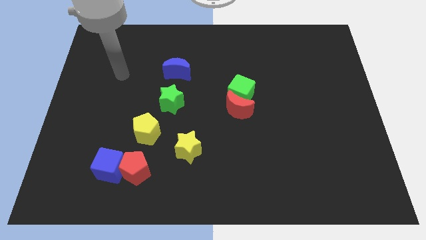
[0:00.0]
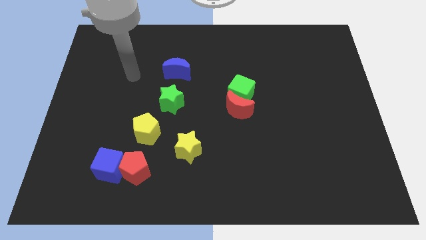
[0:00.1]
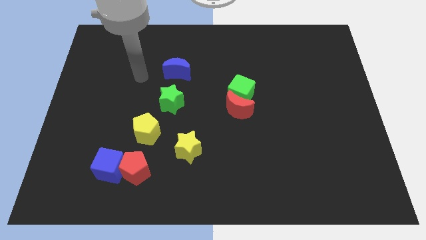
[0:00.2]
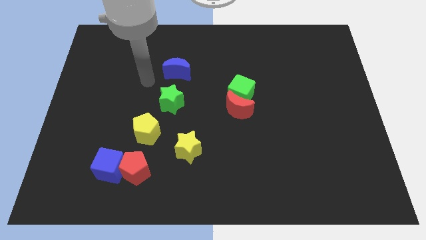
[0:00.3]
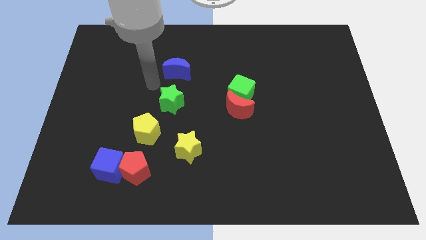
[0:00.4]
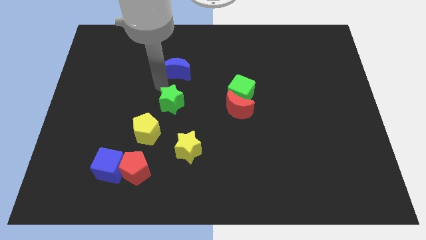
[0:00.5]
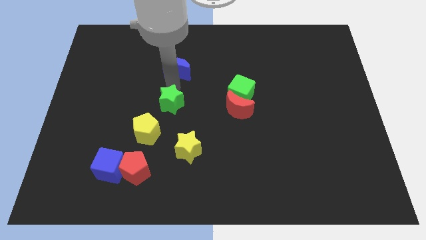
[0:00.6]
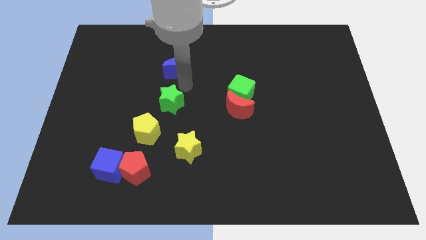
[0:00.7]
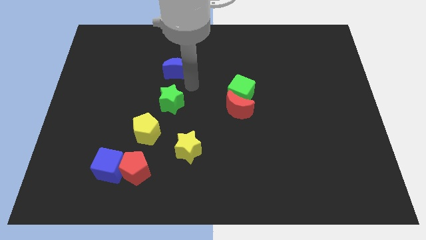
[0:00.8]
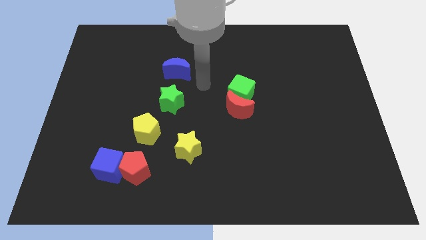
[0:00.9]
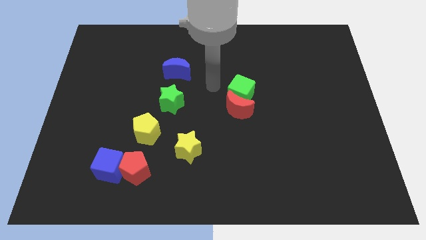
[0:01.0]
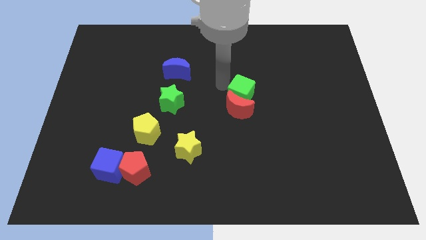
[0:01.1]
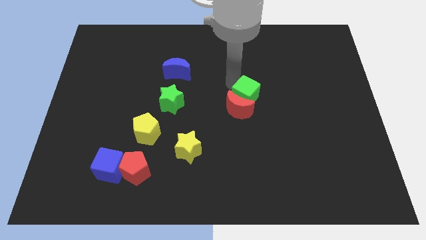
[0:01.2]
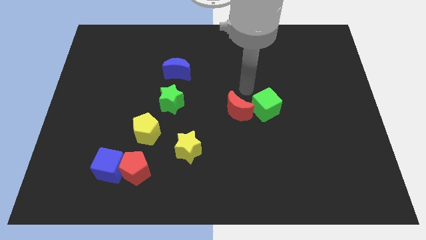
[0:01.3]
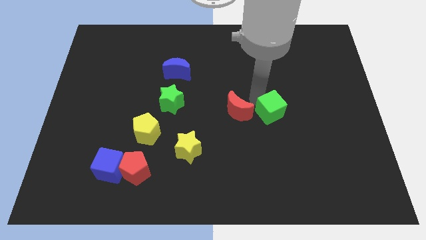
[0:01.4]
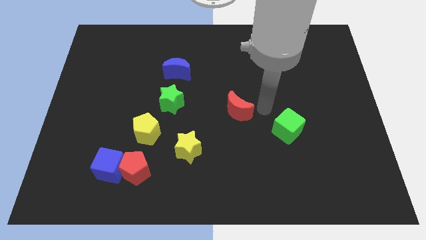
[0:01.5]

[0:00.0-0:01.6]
pull the red moon apart from the green cube

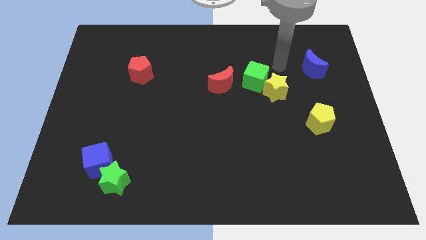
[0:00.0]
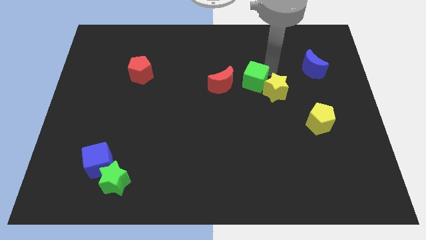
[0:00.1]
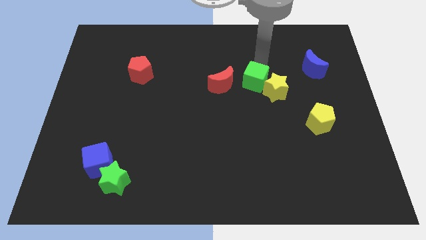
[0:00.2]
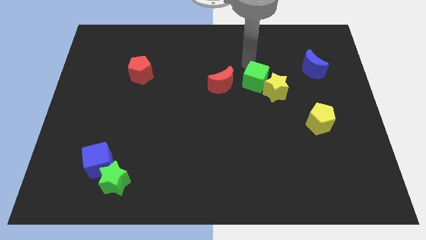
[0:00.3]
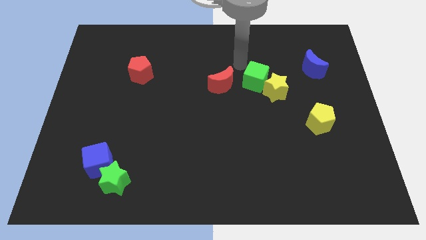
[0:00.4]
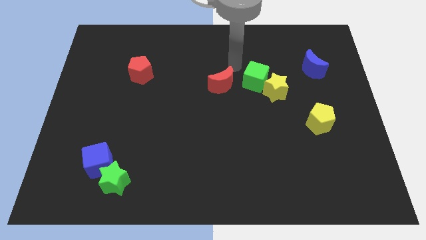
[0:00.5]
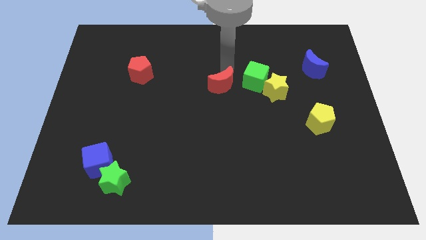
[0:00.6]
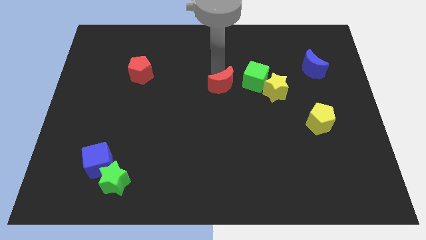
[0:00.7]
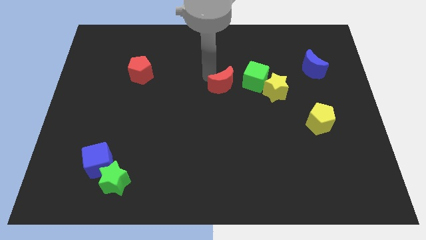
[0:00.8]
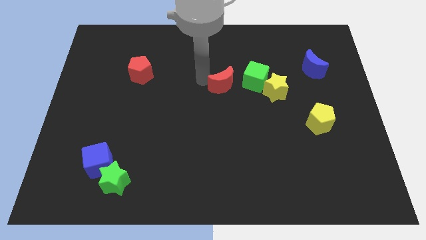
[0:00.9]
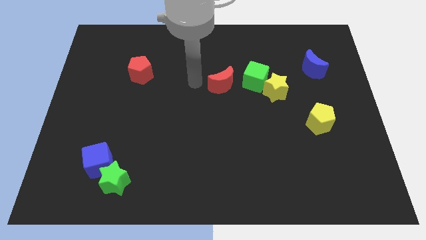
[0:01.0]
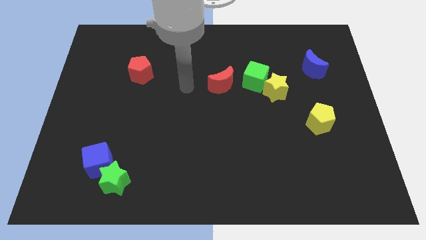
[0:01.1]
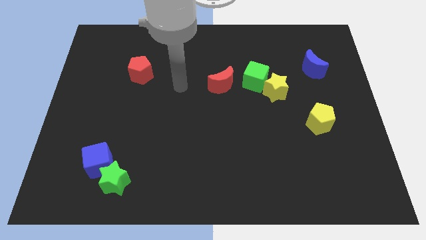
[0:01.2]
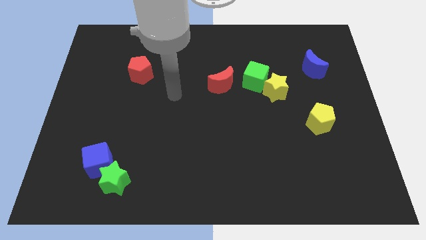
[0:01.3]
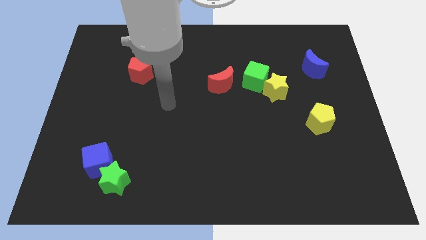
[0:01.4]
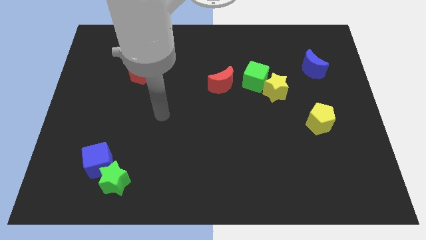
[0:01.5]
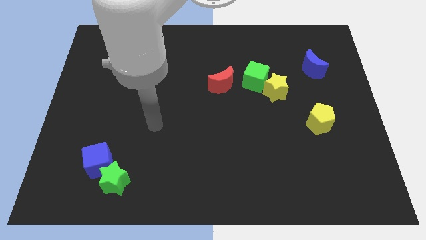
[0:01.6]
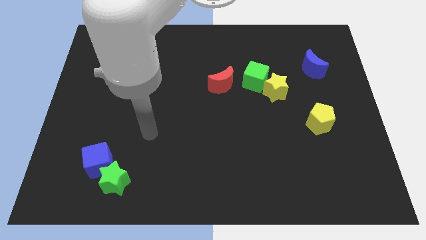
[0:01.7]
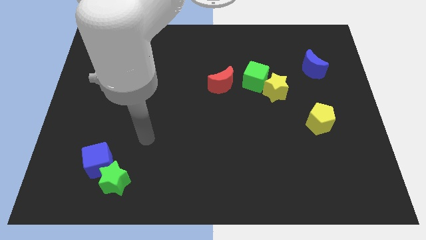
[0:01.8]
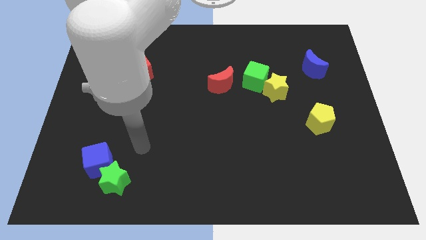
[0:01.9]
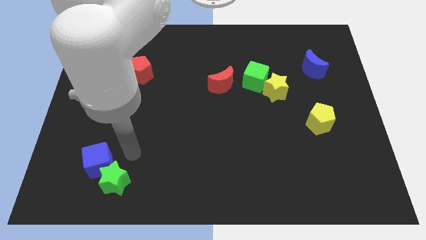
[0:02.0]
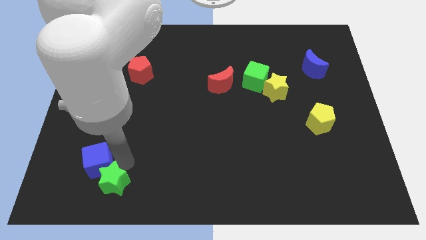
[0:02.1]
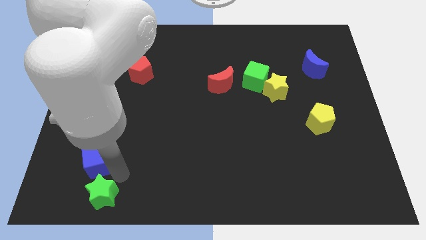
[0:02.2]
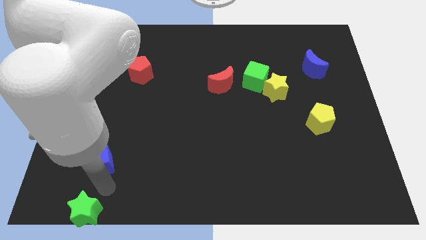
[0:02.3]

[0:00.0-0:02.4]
move the blue cube away from the green star

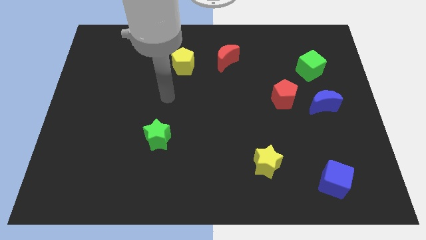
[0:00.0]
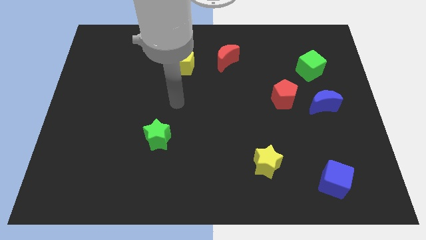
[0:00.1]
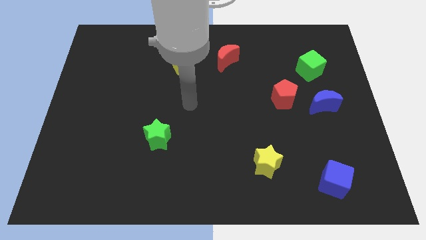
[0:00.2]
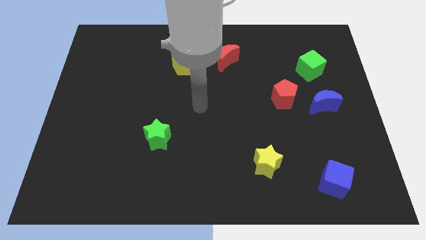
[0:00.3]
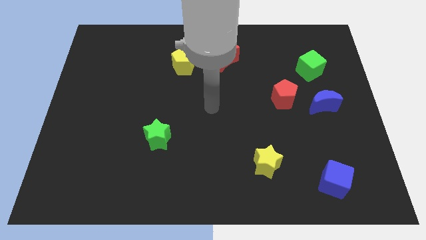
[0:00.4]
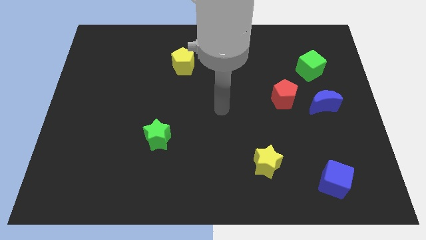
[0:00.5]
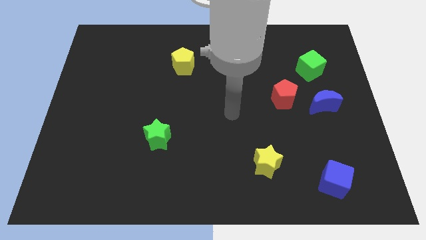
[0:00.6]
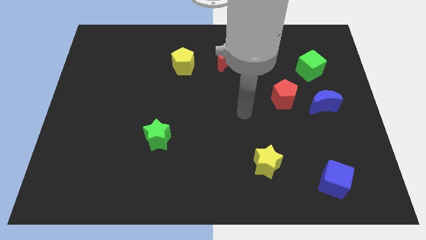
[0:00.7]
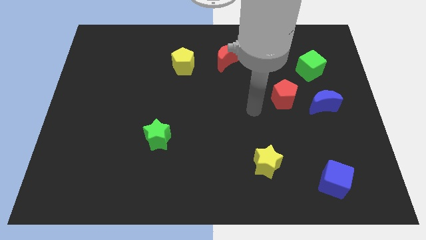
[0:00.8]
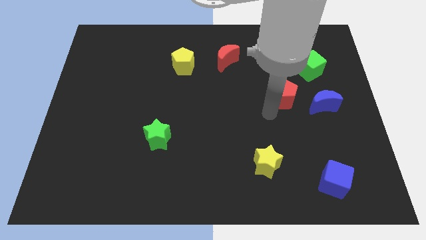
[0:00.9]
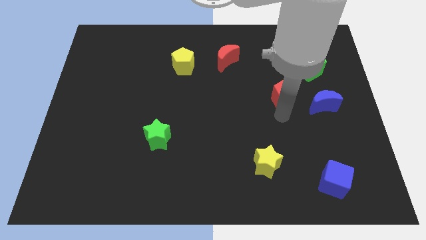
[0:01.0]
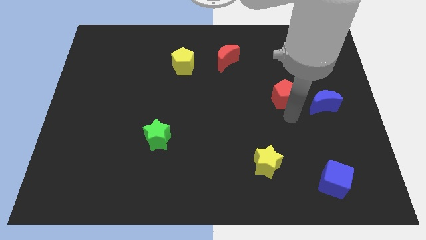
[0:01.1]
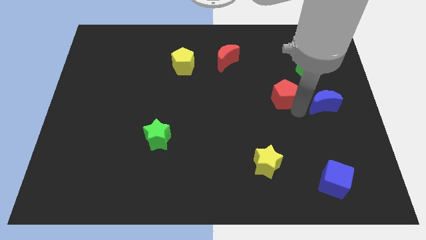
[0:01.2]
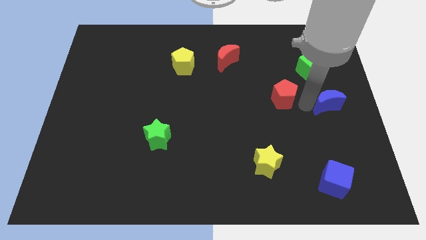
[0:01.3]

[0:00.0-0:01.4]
move the red pentagon away from the blue moon

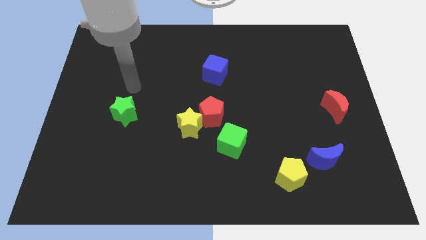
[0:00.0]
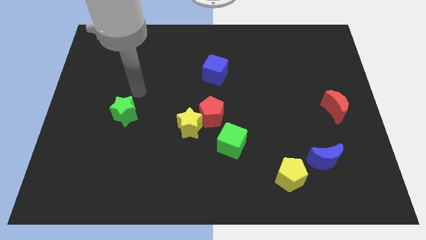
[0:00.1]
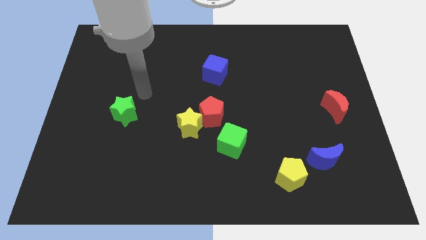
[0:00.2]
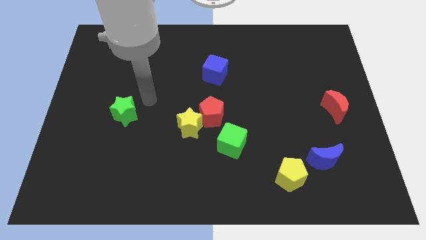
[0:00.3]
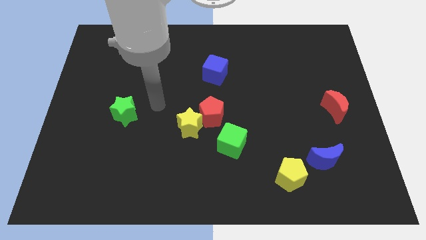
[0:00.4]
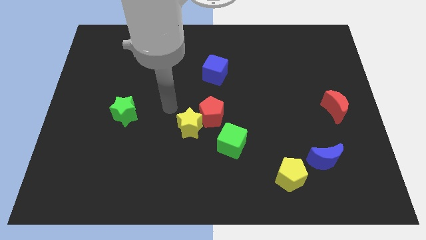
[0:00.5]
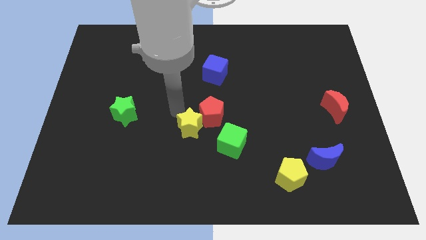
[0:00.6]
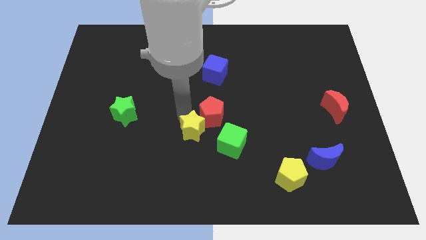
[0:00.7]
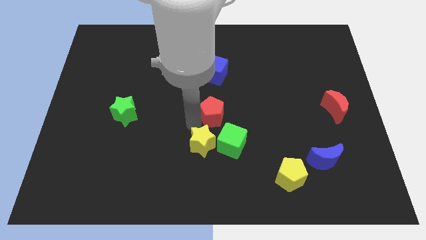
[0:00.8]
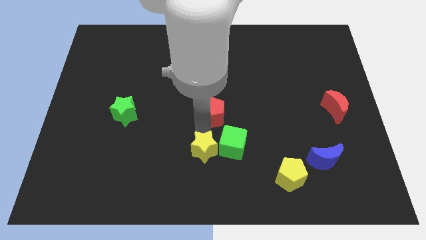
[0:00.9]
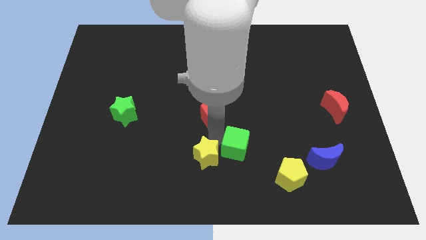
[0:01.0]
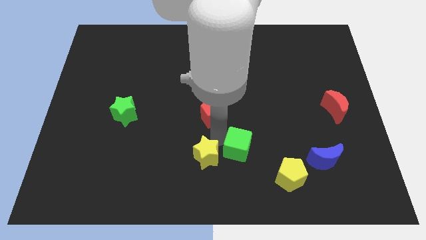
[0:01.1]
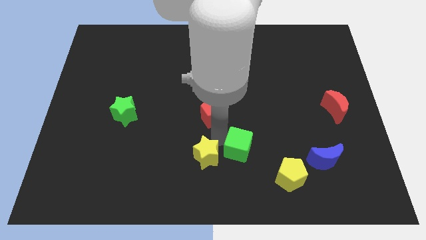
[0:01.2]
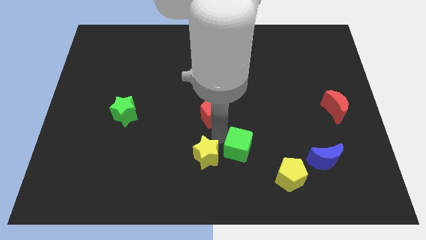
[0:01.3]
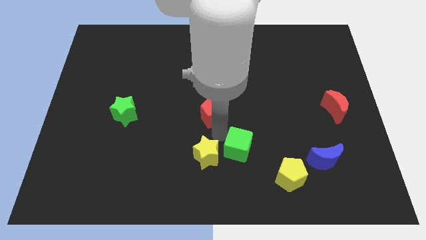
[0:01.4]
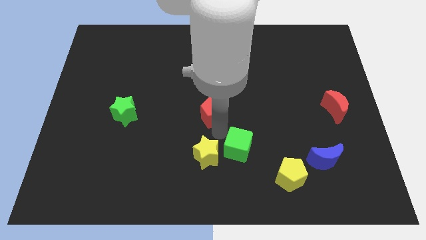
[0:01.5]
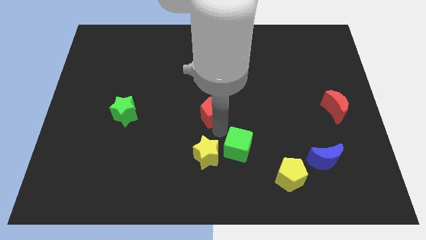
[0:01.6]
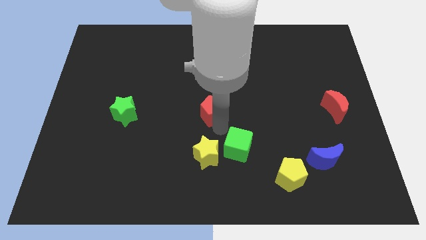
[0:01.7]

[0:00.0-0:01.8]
pull the red pentagon apart from the yellow star and green cube

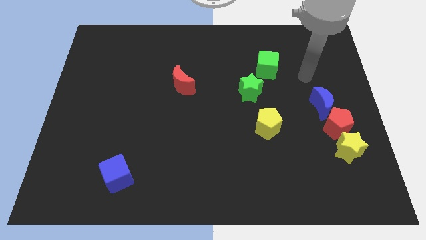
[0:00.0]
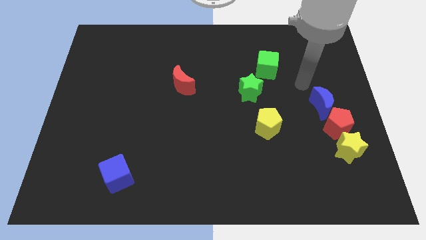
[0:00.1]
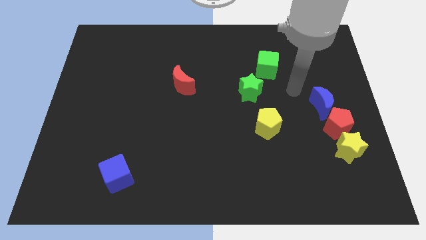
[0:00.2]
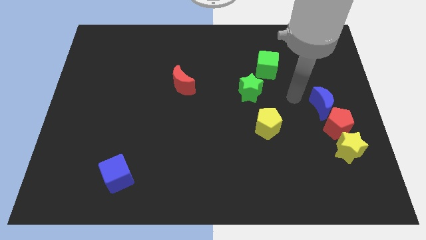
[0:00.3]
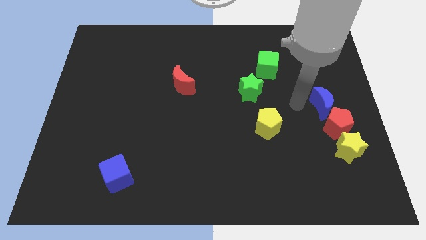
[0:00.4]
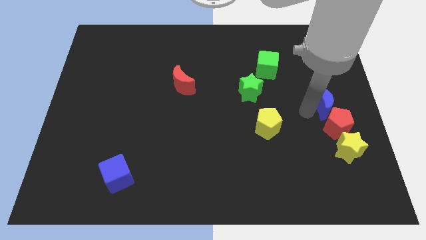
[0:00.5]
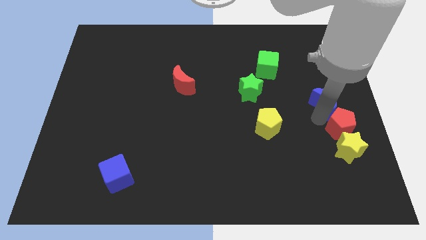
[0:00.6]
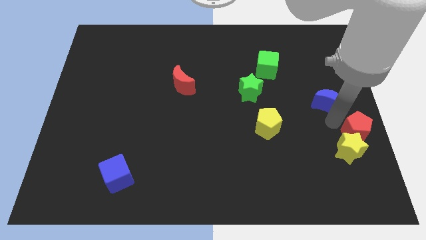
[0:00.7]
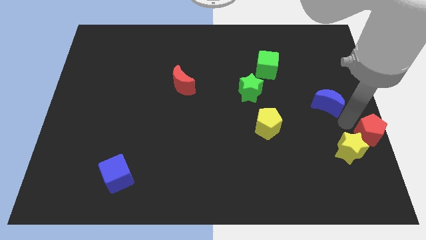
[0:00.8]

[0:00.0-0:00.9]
move the blue moon away from the red pentagon

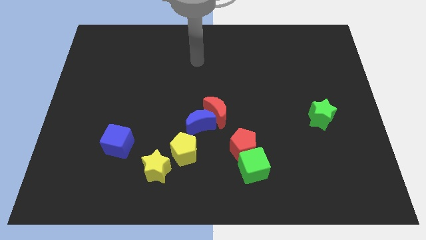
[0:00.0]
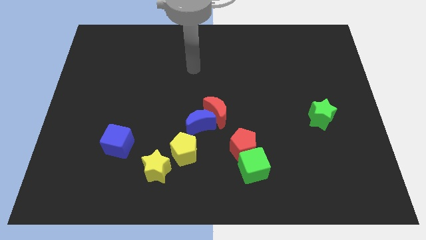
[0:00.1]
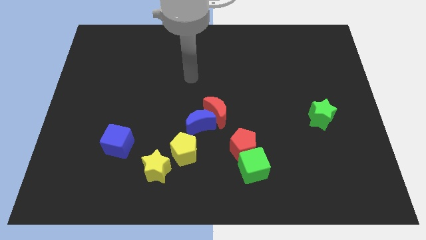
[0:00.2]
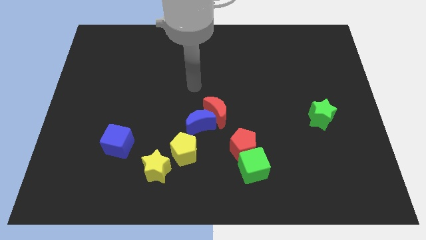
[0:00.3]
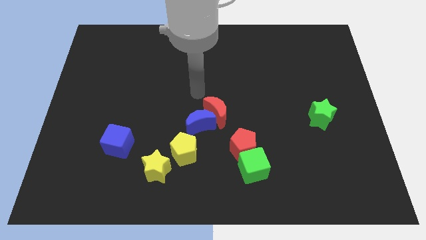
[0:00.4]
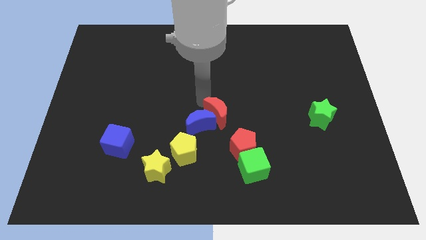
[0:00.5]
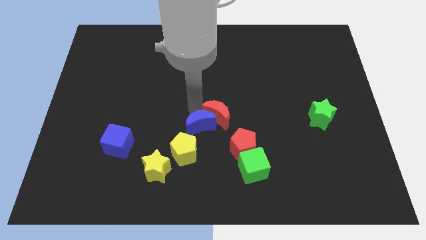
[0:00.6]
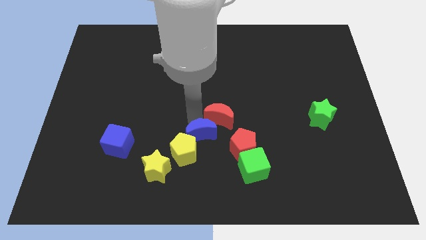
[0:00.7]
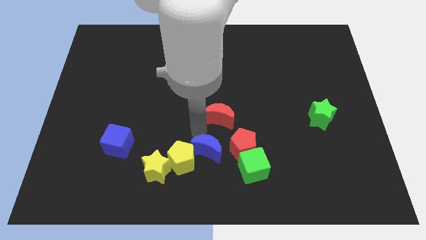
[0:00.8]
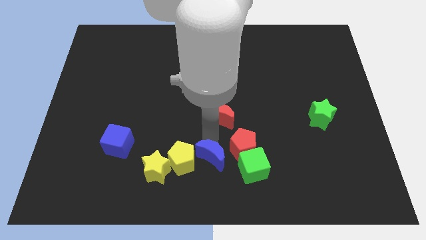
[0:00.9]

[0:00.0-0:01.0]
move the red moon away from the blue moon

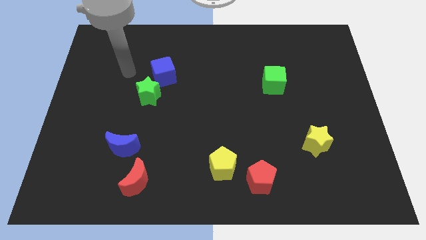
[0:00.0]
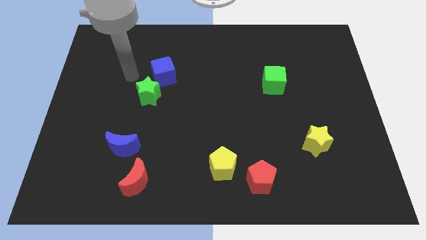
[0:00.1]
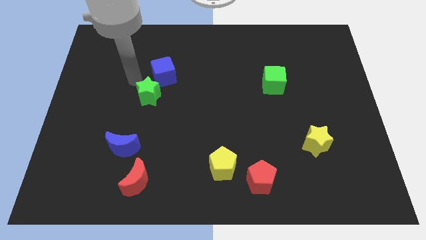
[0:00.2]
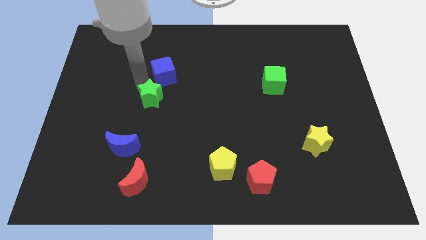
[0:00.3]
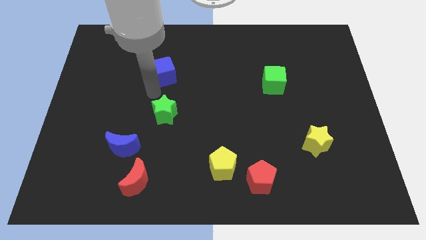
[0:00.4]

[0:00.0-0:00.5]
separate the blue cube from the green star
